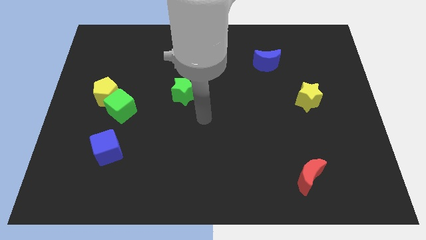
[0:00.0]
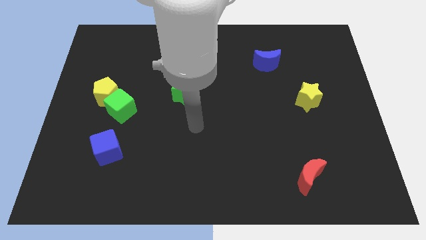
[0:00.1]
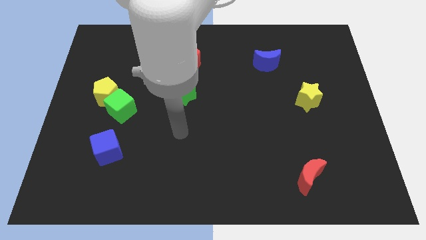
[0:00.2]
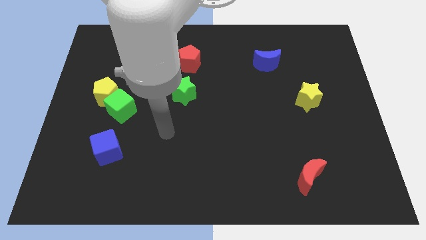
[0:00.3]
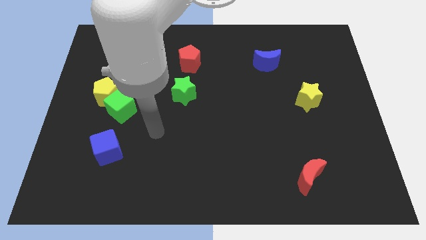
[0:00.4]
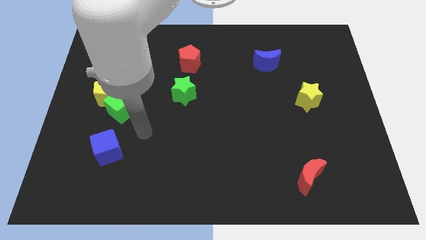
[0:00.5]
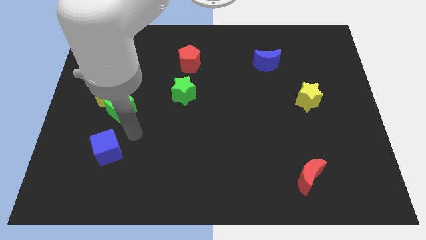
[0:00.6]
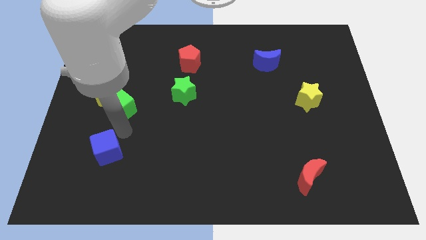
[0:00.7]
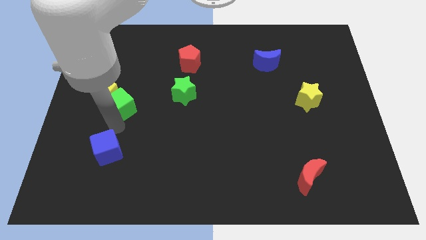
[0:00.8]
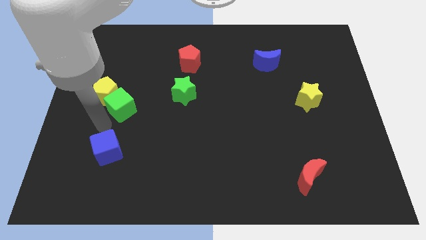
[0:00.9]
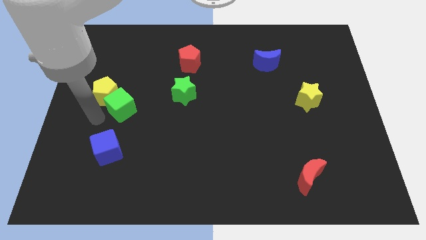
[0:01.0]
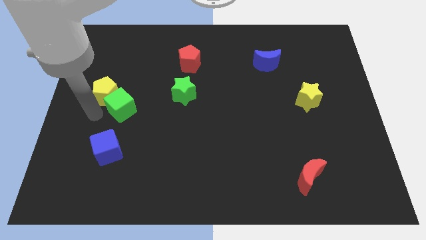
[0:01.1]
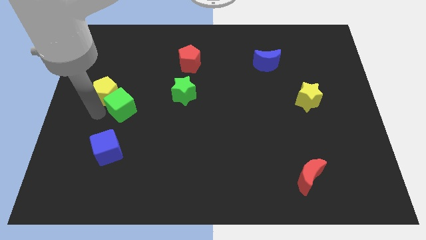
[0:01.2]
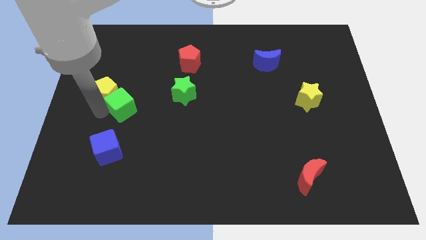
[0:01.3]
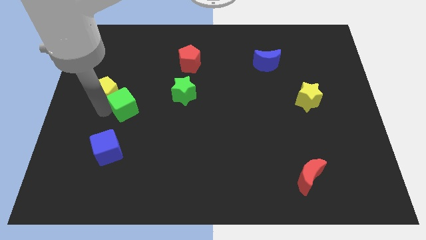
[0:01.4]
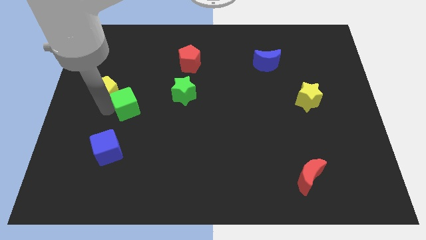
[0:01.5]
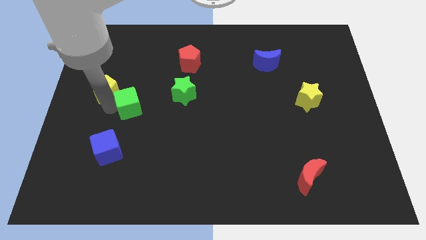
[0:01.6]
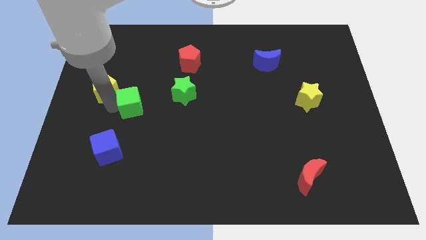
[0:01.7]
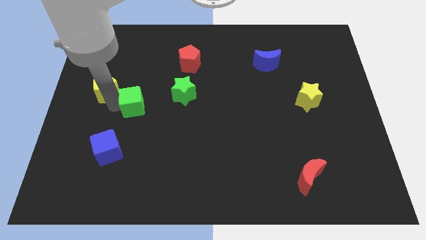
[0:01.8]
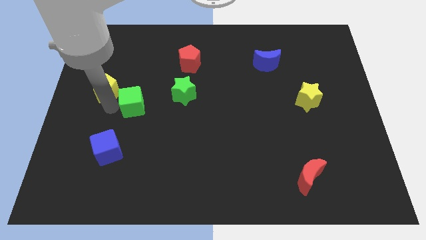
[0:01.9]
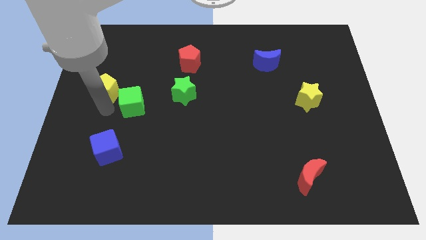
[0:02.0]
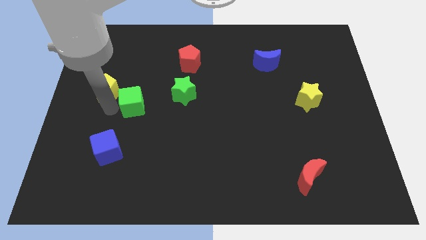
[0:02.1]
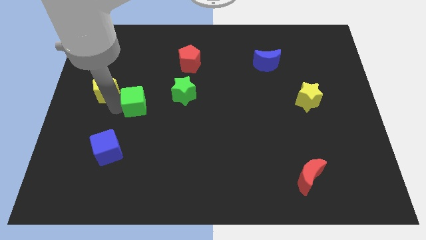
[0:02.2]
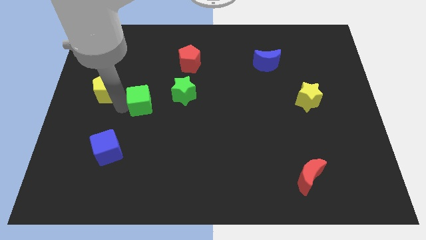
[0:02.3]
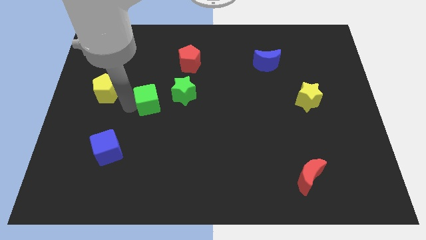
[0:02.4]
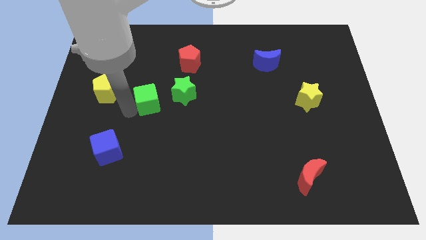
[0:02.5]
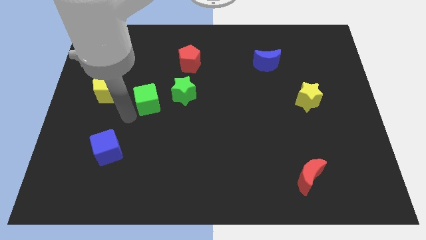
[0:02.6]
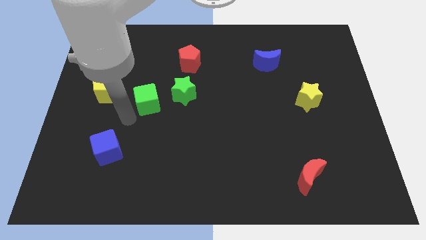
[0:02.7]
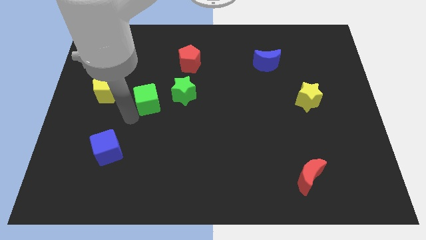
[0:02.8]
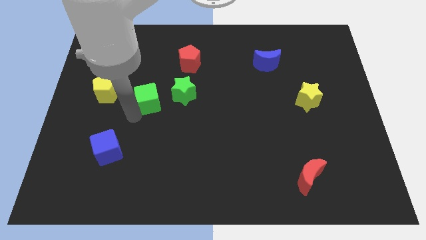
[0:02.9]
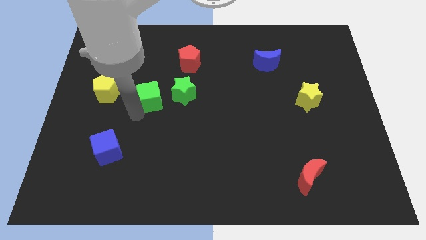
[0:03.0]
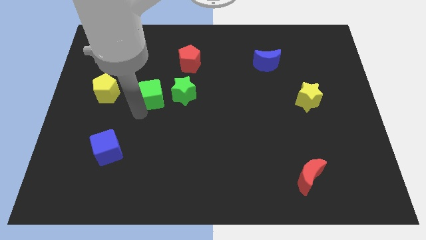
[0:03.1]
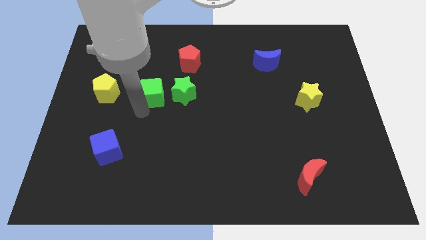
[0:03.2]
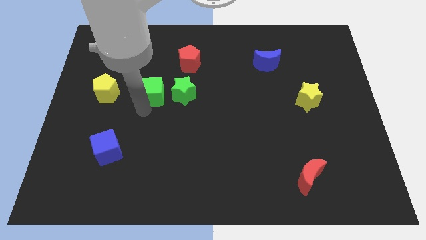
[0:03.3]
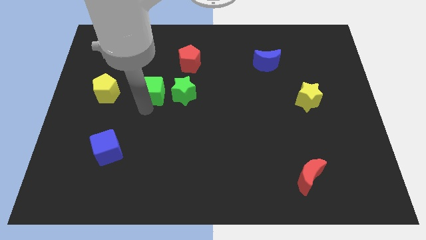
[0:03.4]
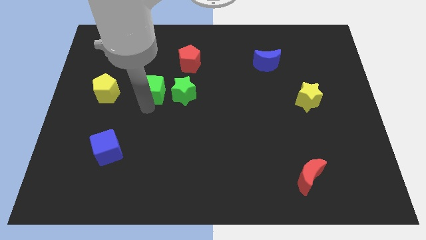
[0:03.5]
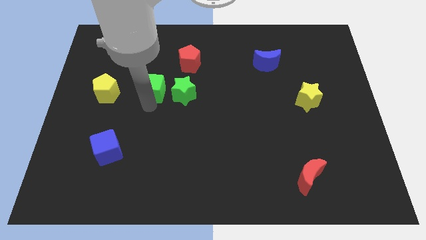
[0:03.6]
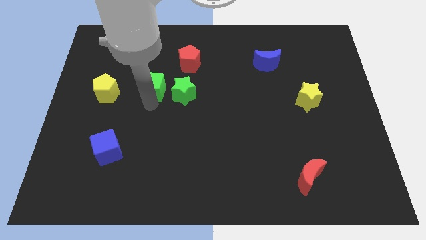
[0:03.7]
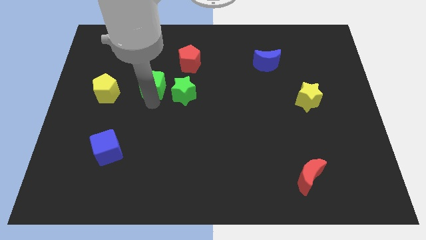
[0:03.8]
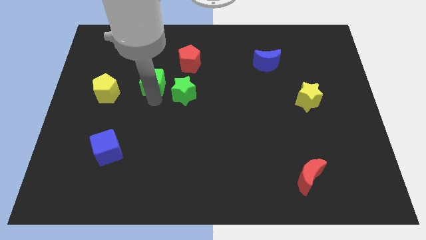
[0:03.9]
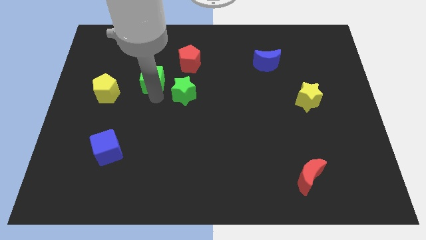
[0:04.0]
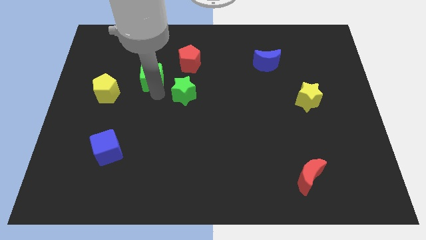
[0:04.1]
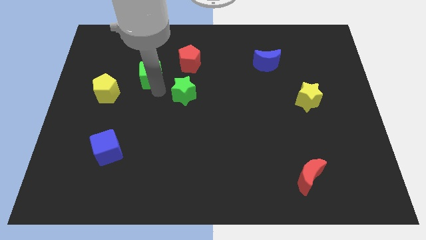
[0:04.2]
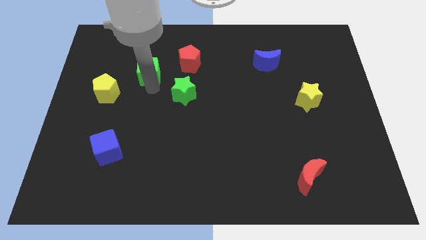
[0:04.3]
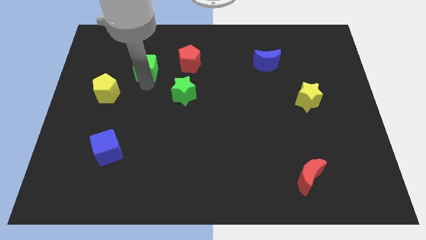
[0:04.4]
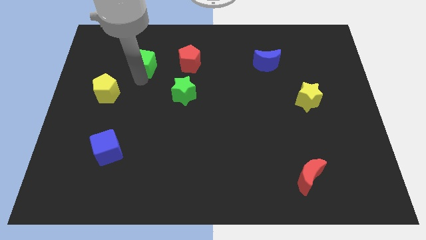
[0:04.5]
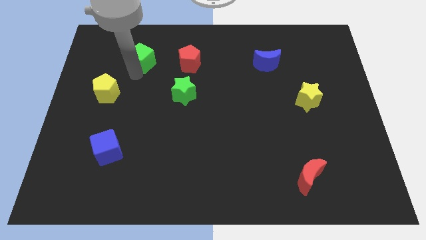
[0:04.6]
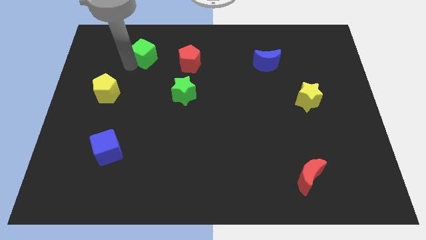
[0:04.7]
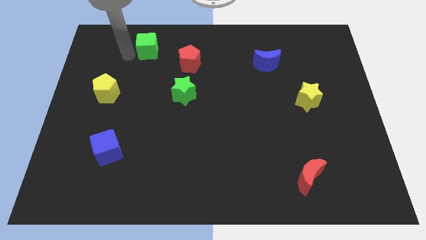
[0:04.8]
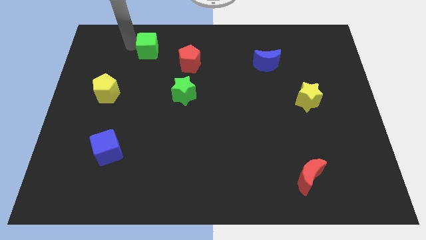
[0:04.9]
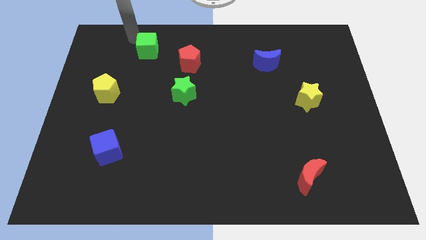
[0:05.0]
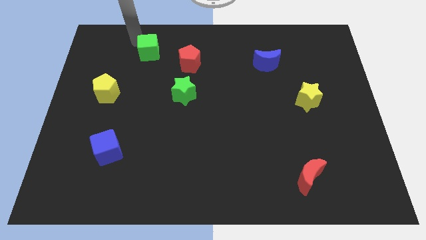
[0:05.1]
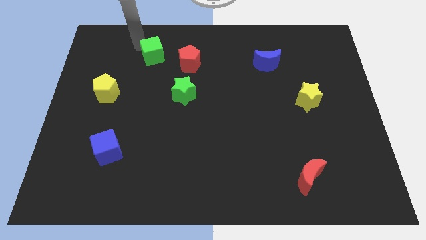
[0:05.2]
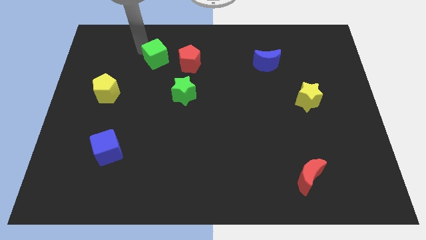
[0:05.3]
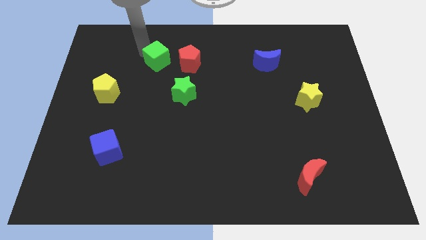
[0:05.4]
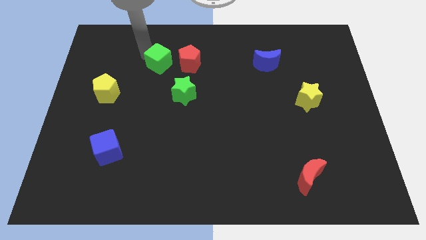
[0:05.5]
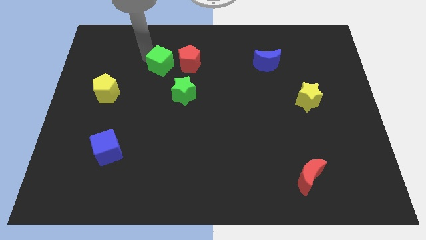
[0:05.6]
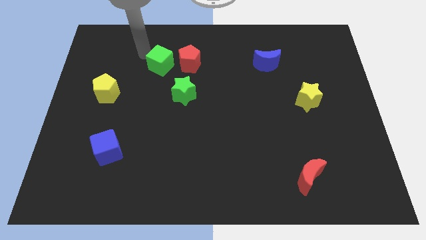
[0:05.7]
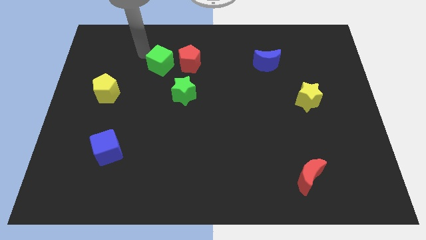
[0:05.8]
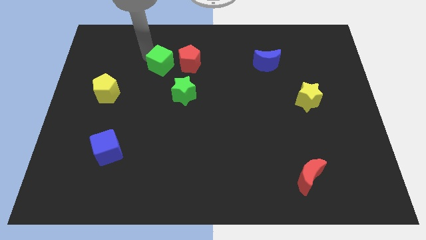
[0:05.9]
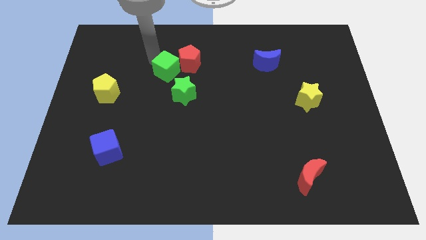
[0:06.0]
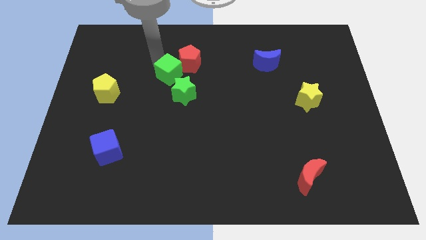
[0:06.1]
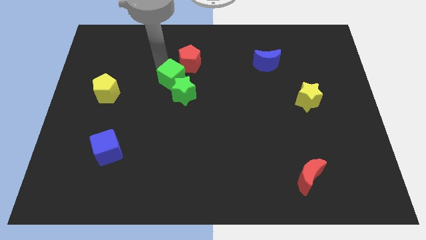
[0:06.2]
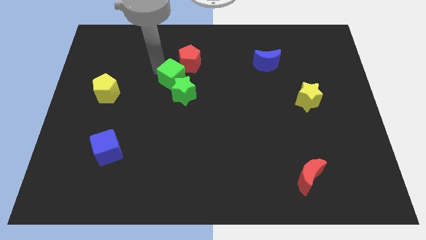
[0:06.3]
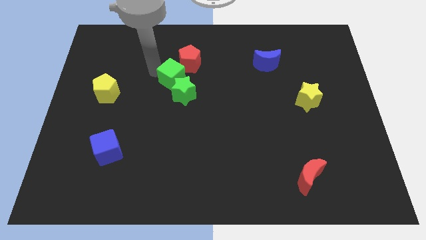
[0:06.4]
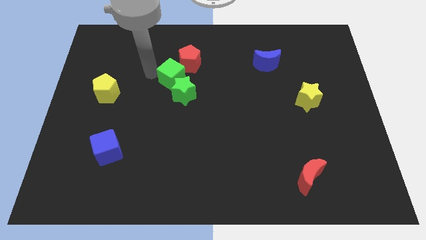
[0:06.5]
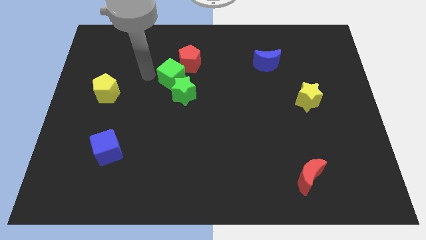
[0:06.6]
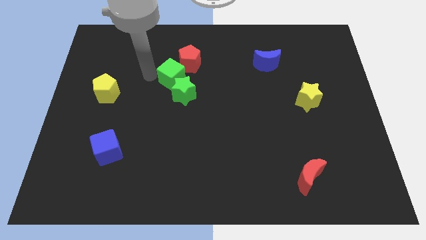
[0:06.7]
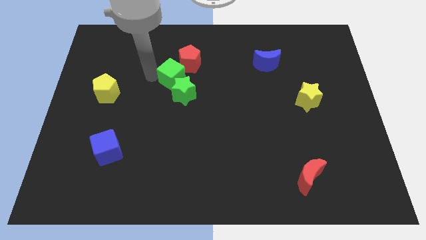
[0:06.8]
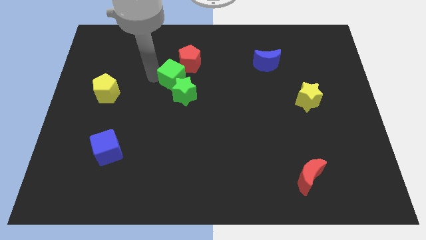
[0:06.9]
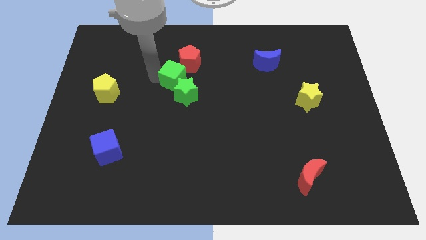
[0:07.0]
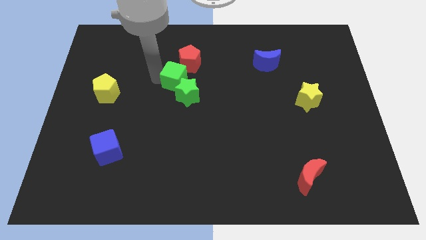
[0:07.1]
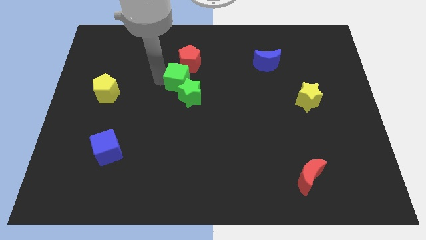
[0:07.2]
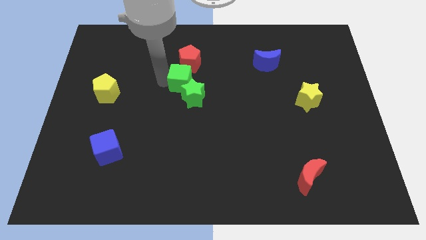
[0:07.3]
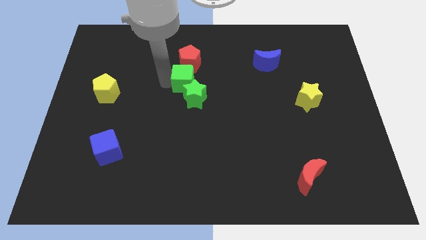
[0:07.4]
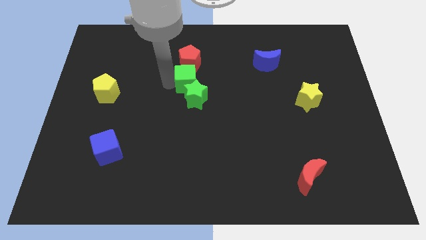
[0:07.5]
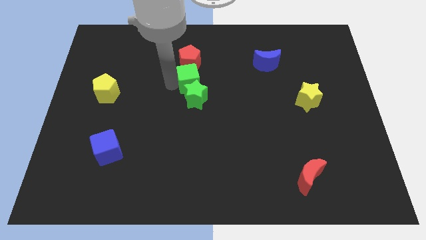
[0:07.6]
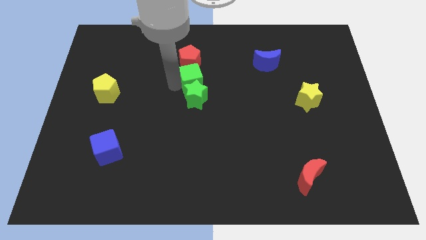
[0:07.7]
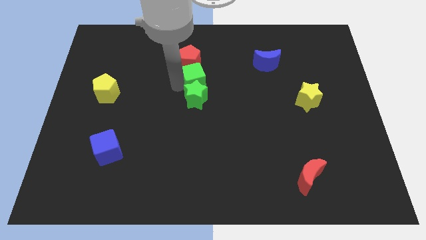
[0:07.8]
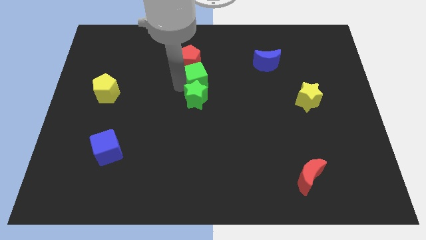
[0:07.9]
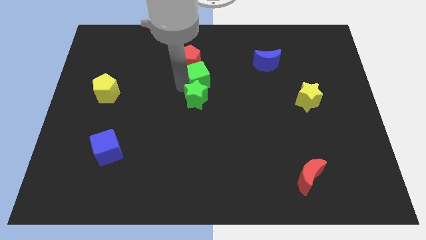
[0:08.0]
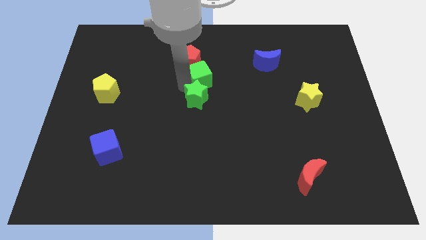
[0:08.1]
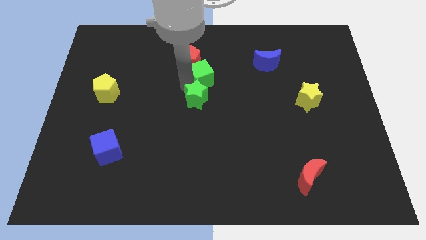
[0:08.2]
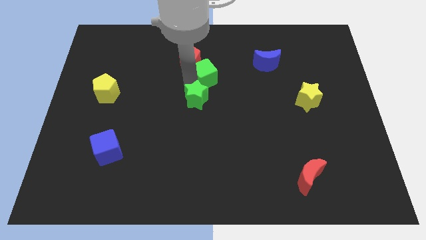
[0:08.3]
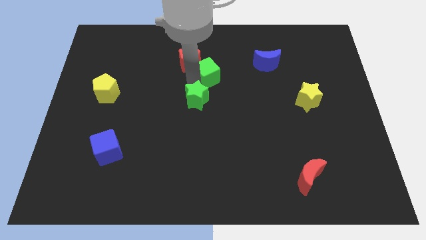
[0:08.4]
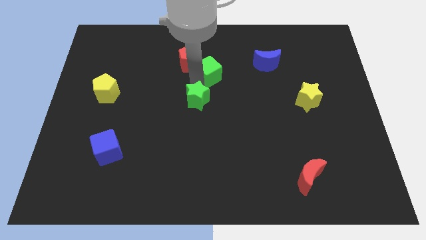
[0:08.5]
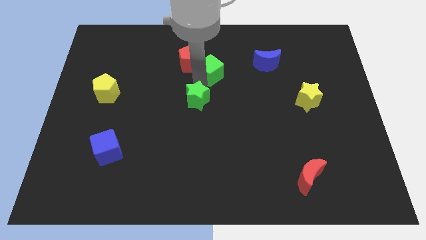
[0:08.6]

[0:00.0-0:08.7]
push the green cube to the left of the blue moon
